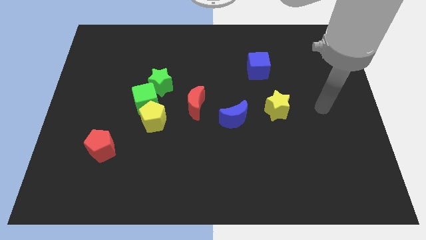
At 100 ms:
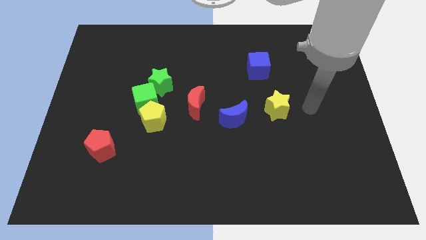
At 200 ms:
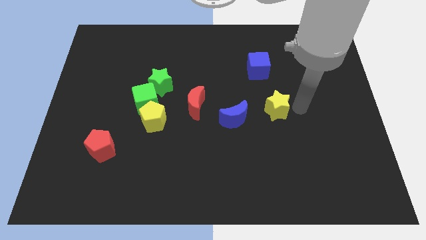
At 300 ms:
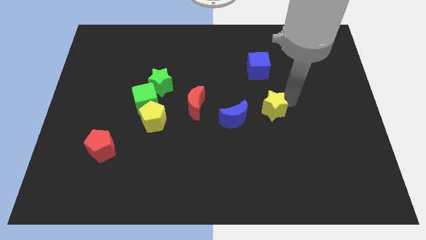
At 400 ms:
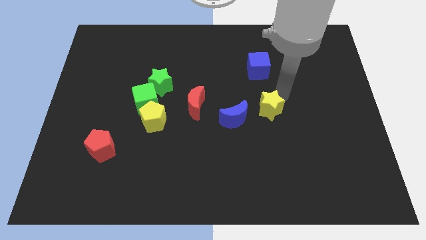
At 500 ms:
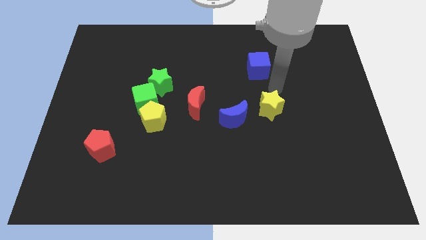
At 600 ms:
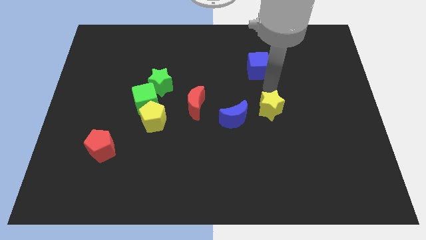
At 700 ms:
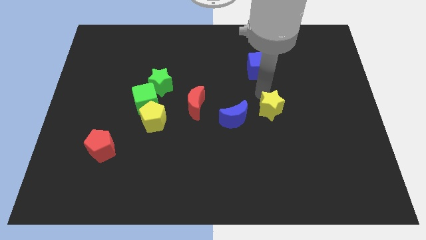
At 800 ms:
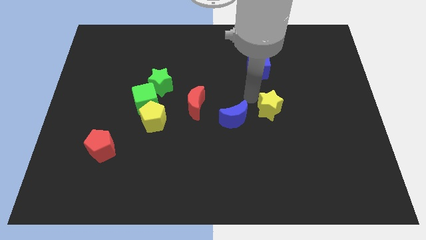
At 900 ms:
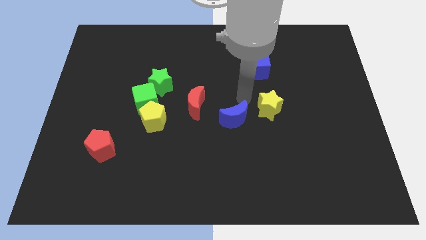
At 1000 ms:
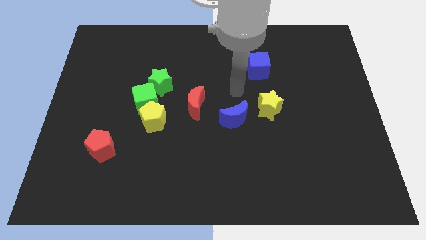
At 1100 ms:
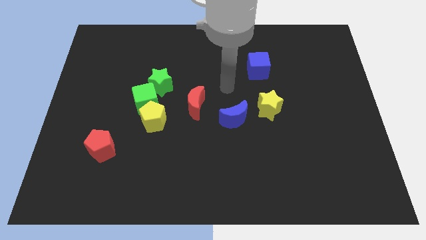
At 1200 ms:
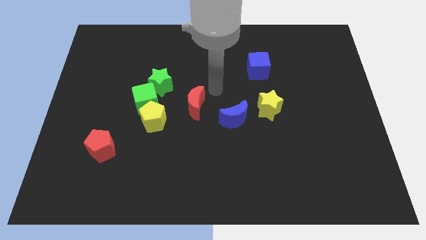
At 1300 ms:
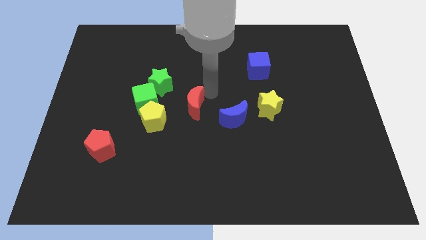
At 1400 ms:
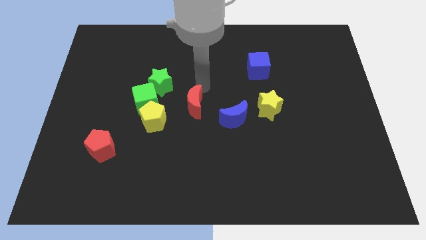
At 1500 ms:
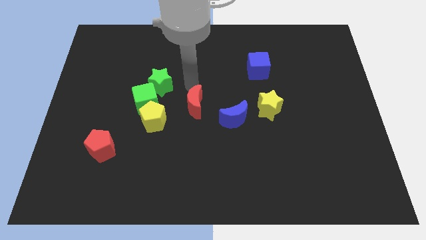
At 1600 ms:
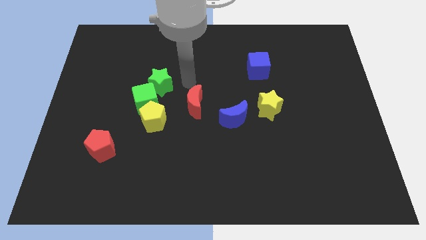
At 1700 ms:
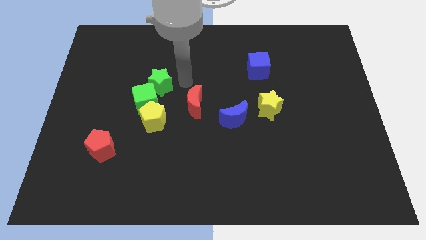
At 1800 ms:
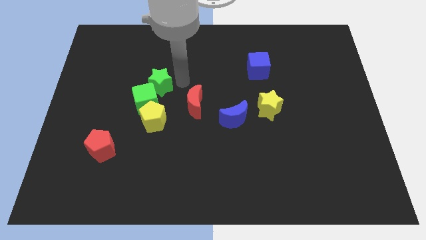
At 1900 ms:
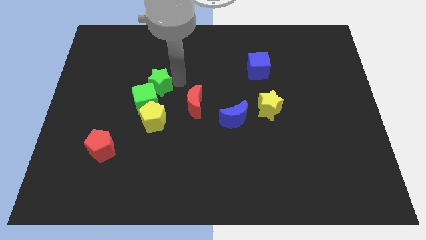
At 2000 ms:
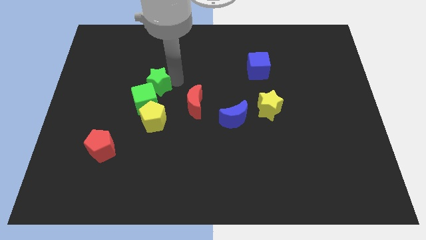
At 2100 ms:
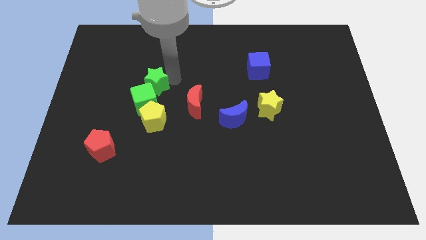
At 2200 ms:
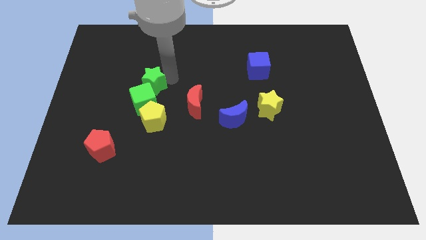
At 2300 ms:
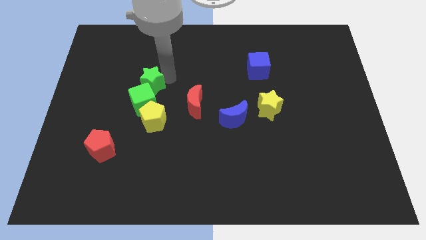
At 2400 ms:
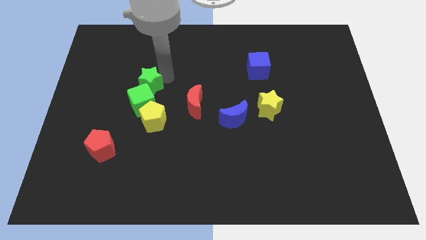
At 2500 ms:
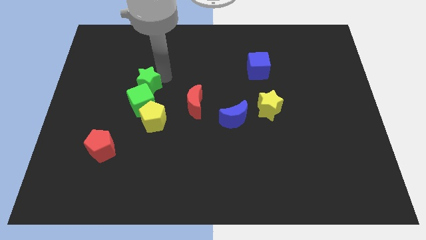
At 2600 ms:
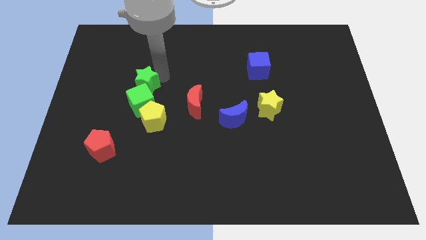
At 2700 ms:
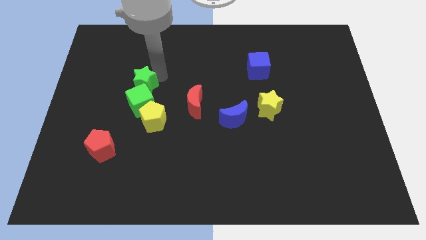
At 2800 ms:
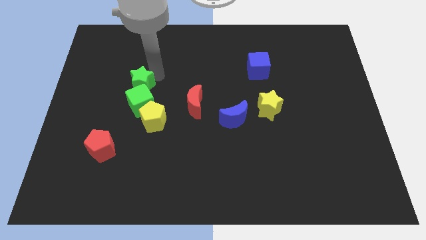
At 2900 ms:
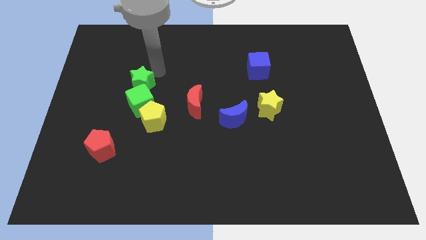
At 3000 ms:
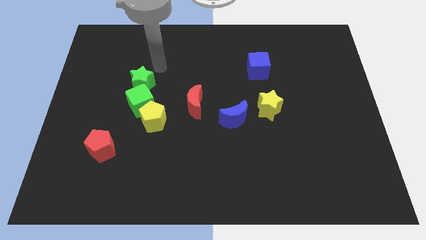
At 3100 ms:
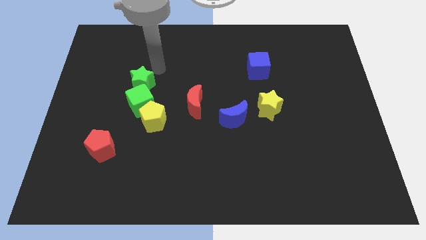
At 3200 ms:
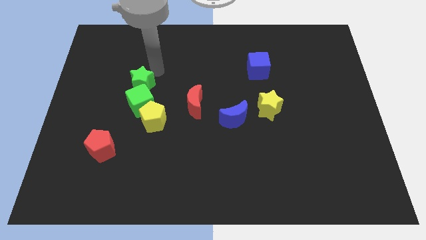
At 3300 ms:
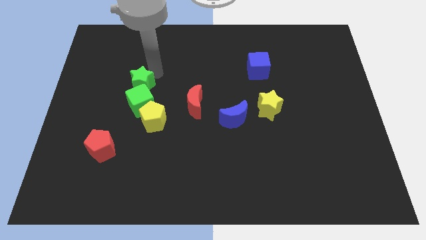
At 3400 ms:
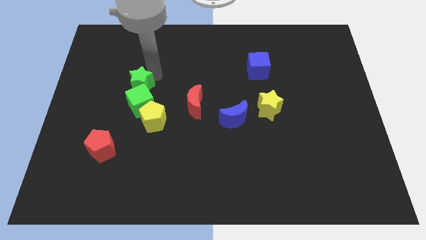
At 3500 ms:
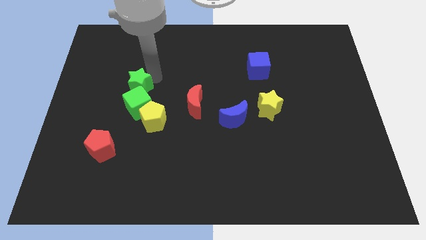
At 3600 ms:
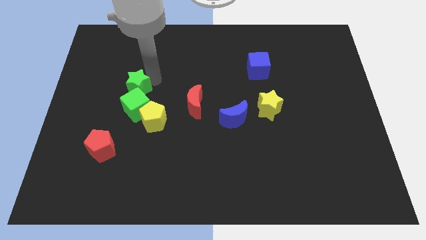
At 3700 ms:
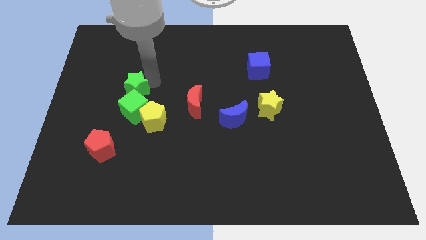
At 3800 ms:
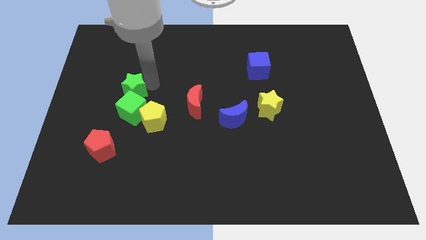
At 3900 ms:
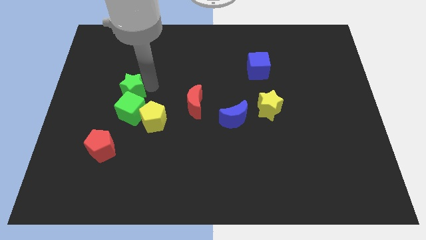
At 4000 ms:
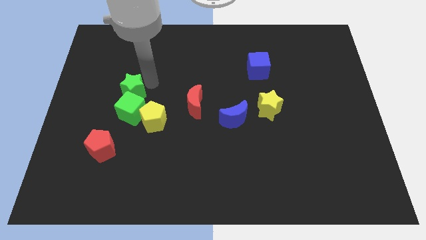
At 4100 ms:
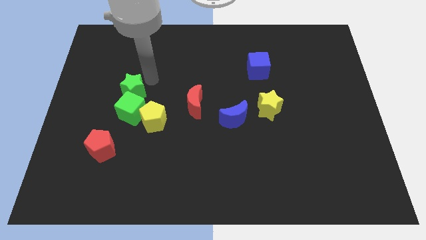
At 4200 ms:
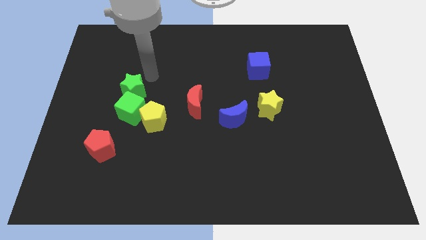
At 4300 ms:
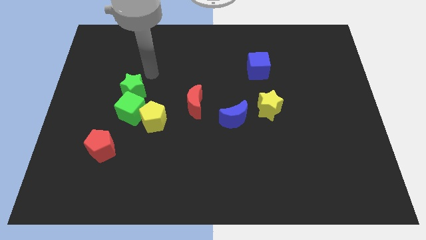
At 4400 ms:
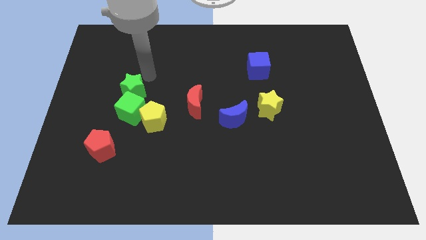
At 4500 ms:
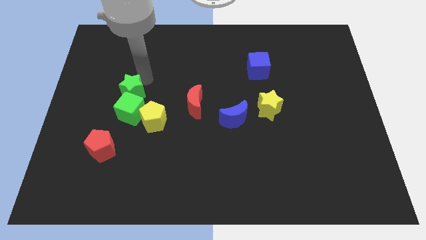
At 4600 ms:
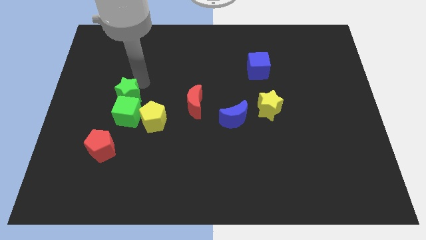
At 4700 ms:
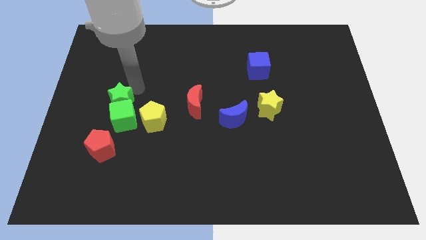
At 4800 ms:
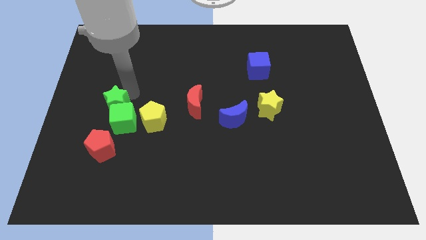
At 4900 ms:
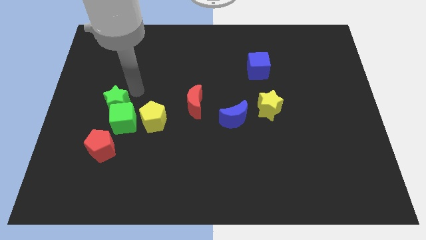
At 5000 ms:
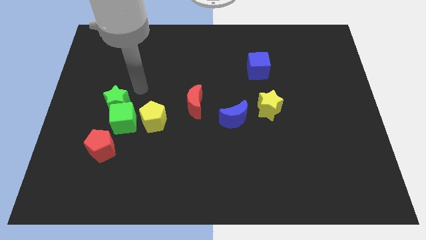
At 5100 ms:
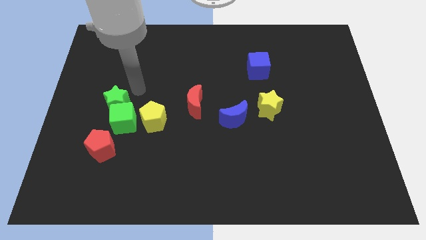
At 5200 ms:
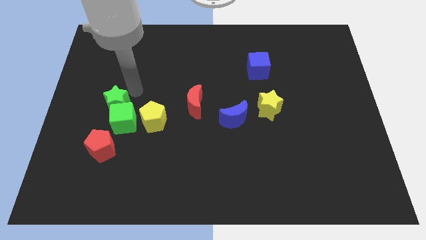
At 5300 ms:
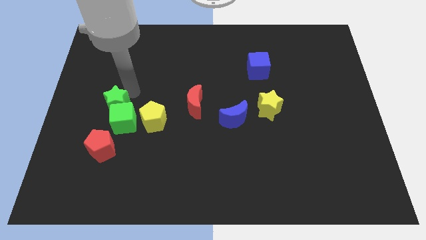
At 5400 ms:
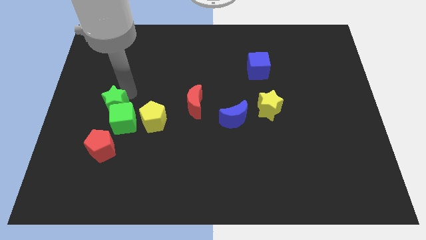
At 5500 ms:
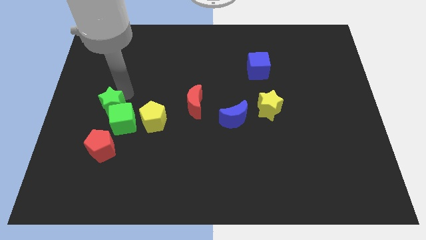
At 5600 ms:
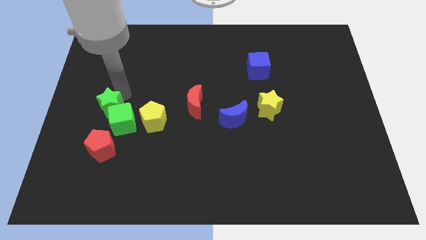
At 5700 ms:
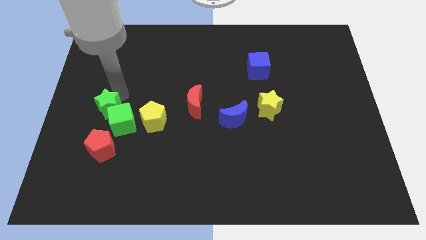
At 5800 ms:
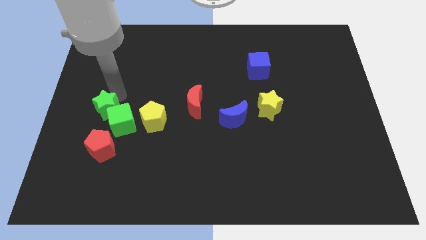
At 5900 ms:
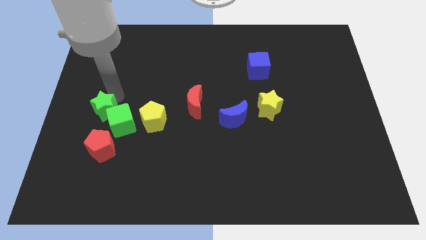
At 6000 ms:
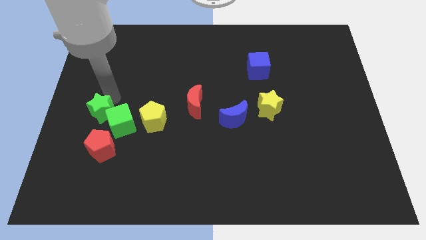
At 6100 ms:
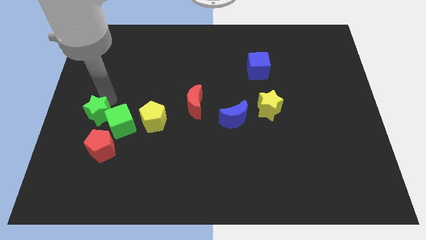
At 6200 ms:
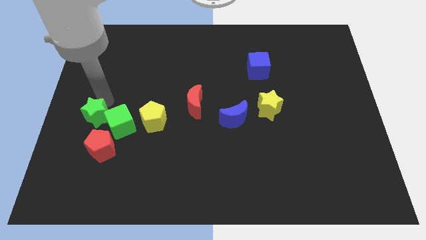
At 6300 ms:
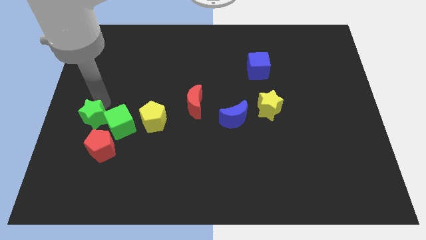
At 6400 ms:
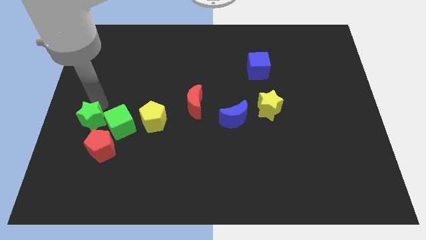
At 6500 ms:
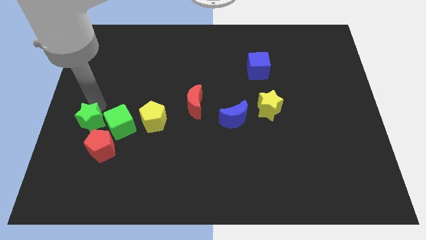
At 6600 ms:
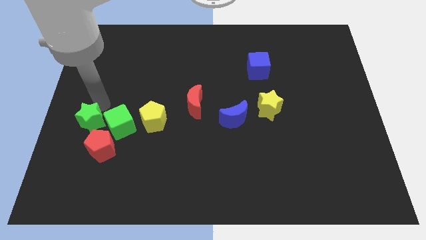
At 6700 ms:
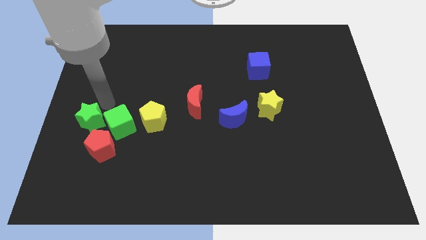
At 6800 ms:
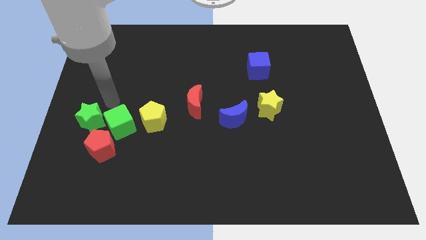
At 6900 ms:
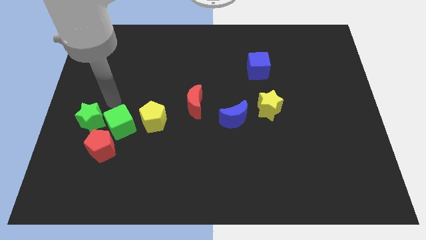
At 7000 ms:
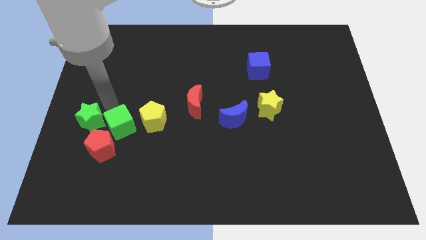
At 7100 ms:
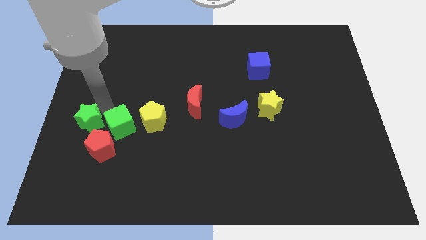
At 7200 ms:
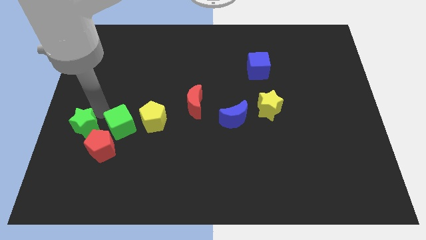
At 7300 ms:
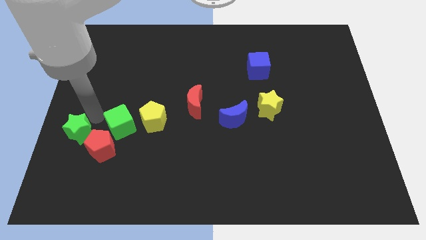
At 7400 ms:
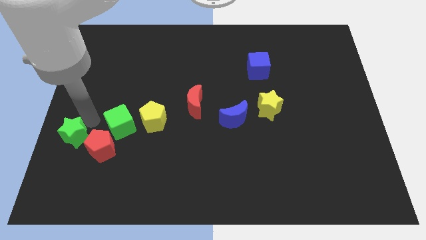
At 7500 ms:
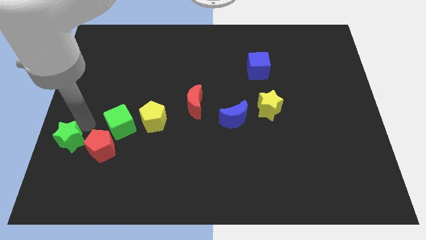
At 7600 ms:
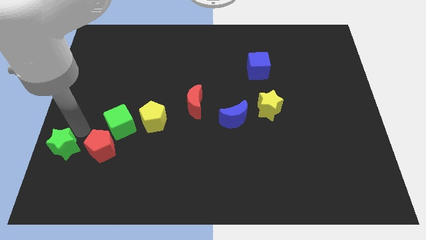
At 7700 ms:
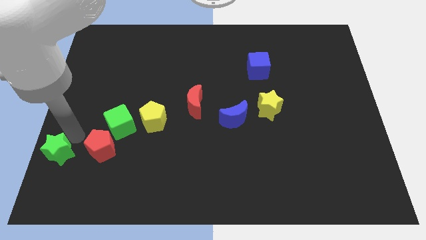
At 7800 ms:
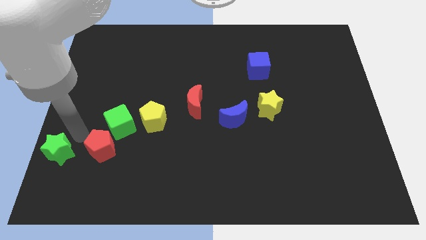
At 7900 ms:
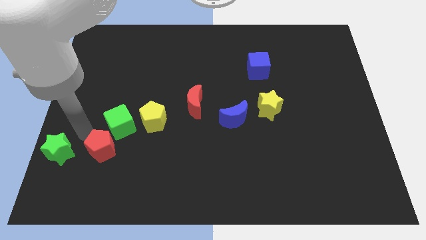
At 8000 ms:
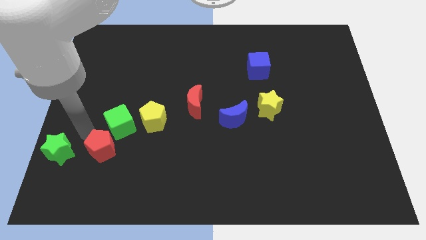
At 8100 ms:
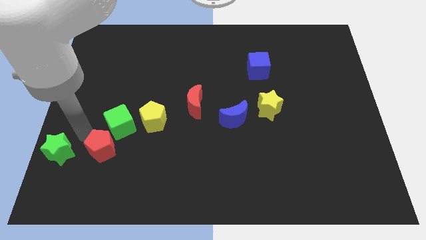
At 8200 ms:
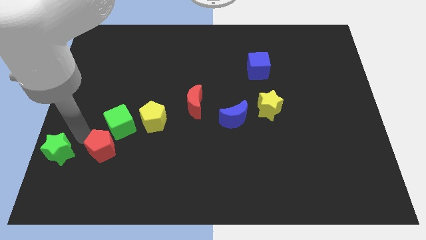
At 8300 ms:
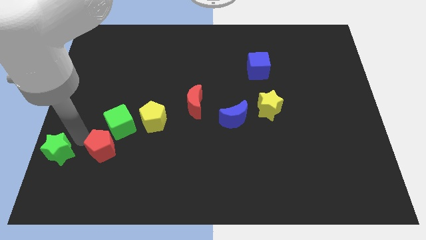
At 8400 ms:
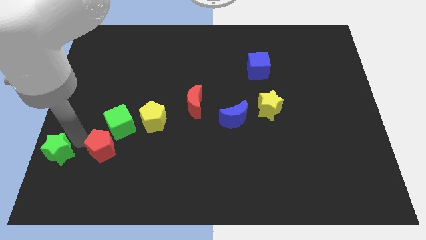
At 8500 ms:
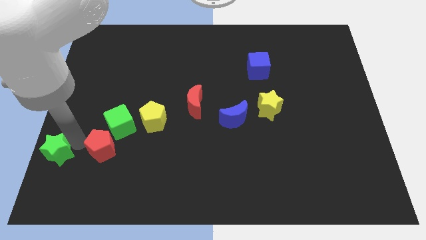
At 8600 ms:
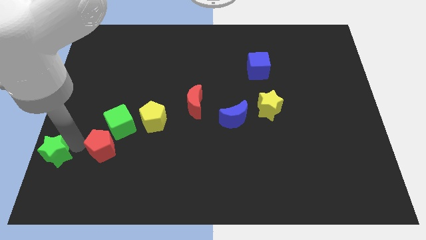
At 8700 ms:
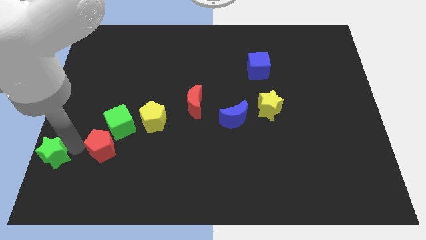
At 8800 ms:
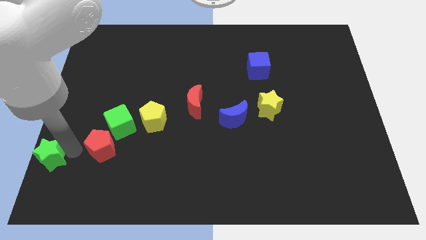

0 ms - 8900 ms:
move the green star to the bottom left of the board
